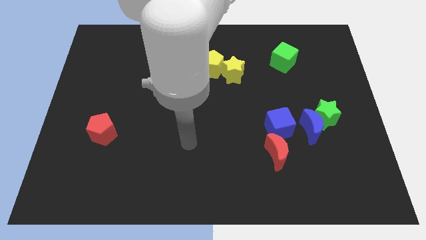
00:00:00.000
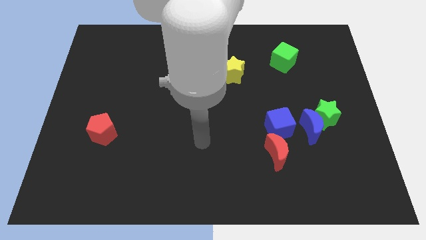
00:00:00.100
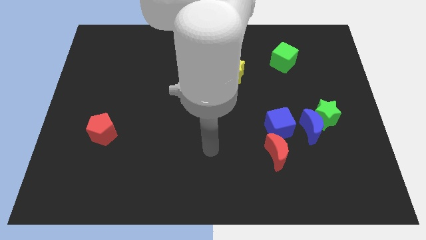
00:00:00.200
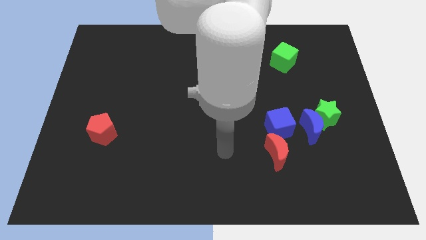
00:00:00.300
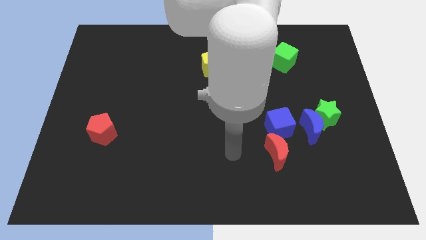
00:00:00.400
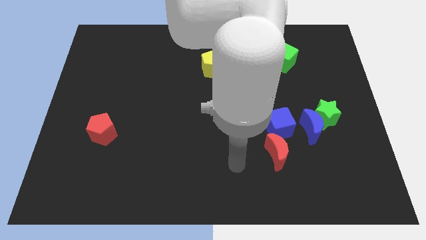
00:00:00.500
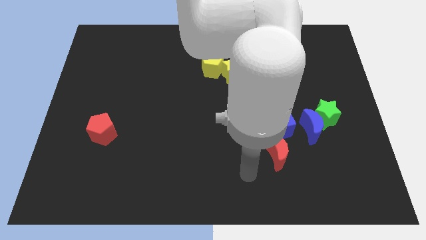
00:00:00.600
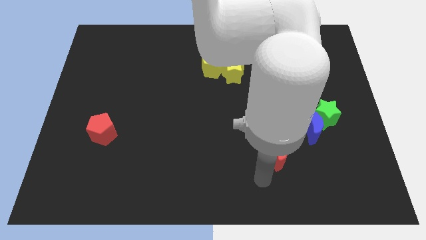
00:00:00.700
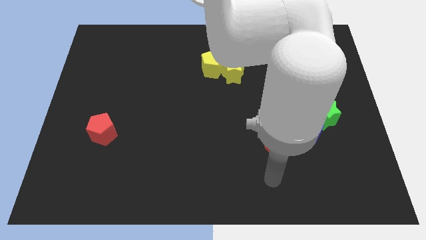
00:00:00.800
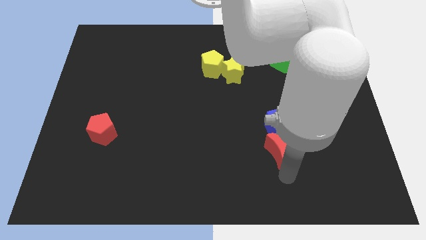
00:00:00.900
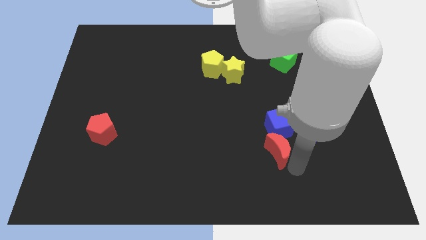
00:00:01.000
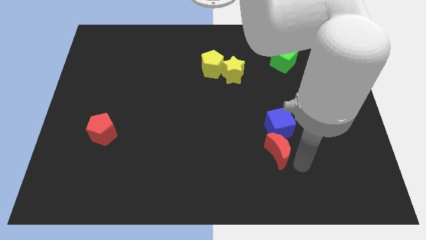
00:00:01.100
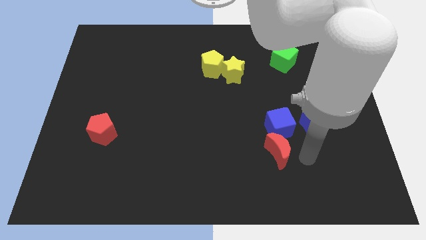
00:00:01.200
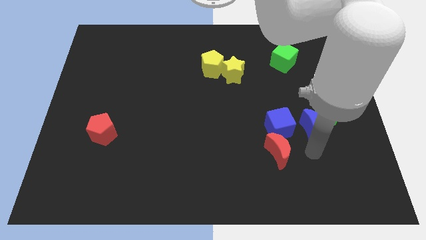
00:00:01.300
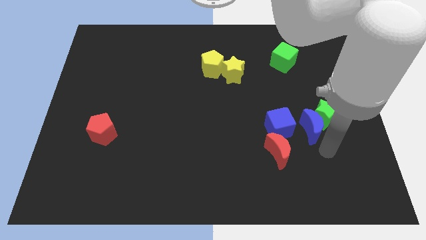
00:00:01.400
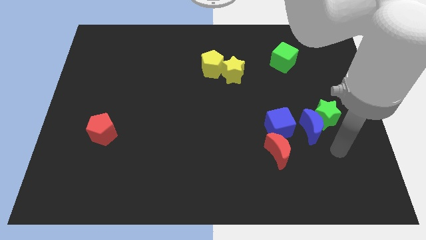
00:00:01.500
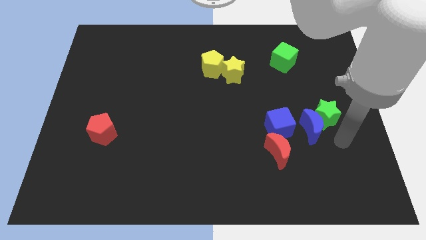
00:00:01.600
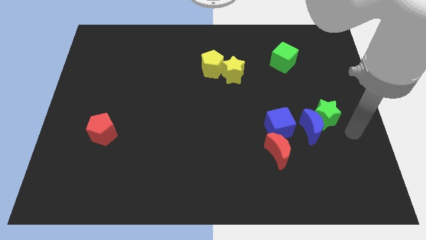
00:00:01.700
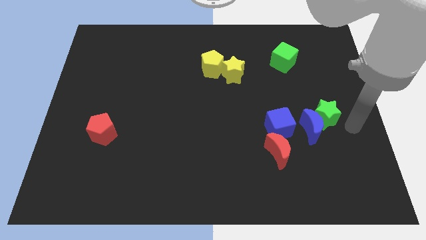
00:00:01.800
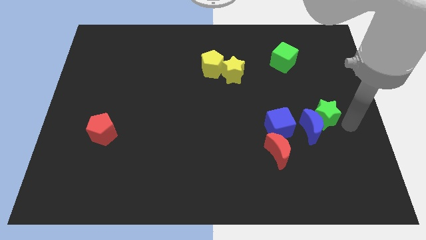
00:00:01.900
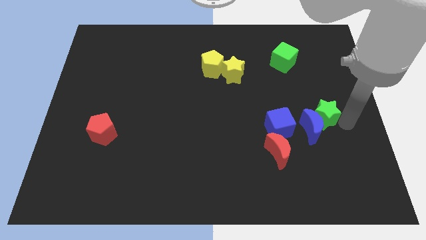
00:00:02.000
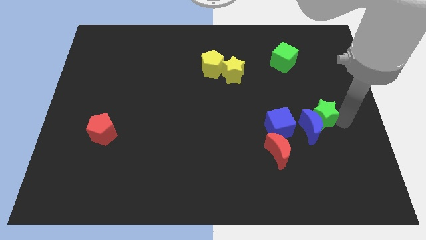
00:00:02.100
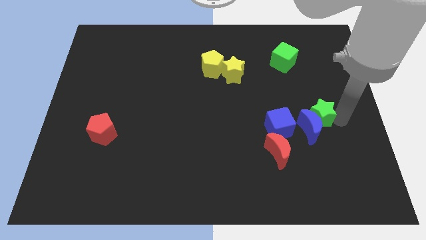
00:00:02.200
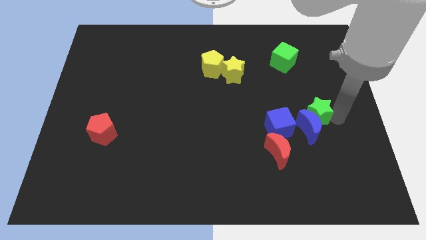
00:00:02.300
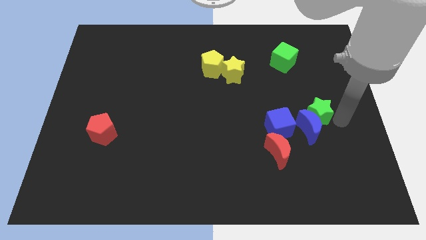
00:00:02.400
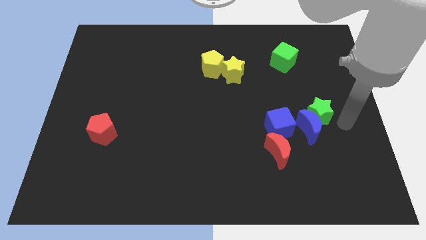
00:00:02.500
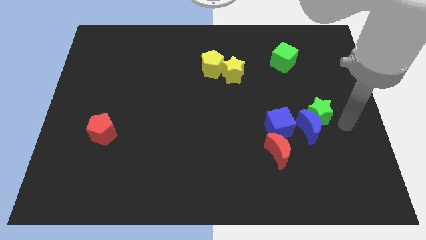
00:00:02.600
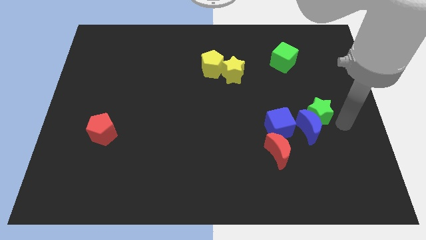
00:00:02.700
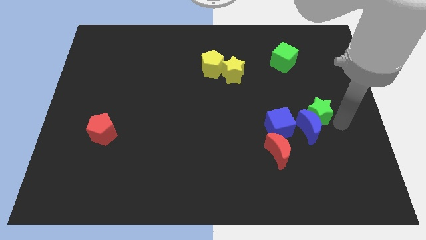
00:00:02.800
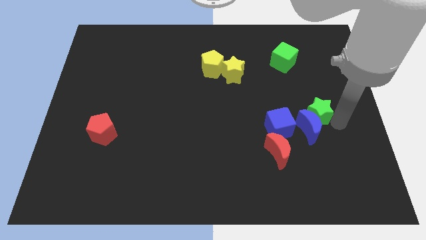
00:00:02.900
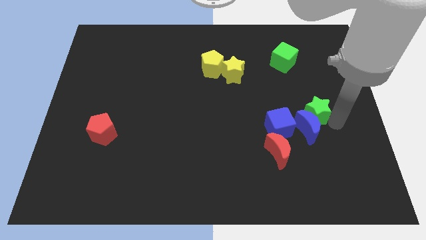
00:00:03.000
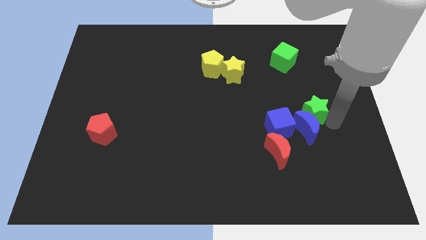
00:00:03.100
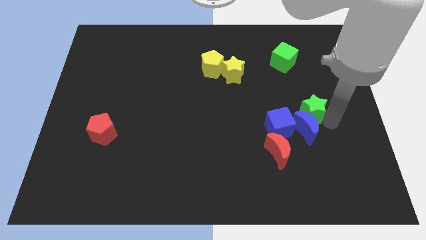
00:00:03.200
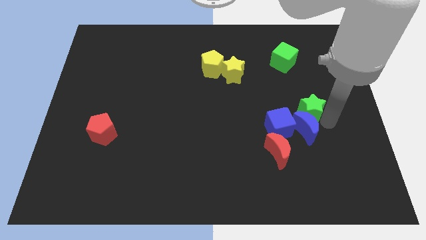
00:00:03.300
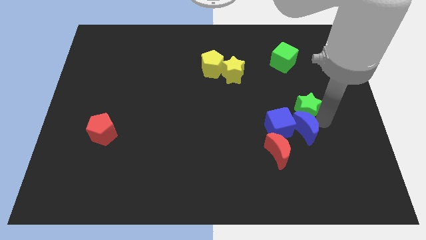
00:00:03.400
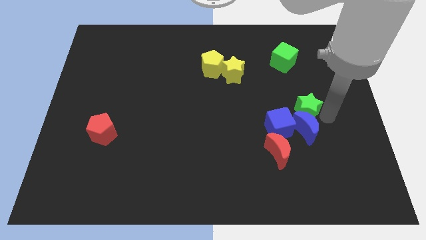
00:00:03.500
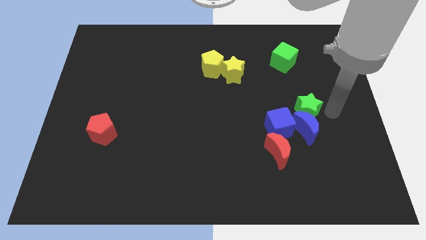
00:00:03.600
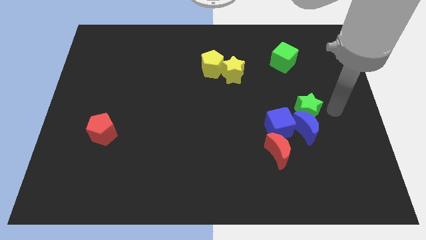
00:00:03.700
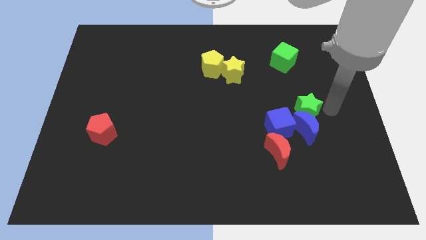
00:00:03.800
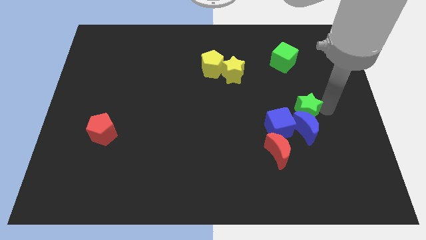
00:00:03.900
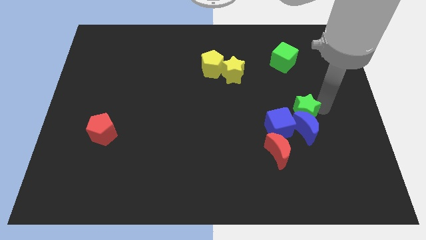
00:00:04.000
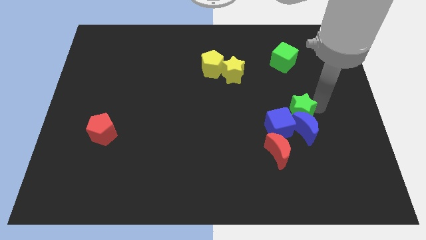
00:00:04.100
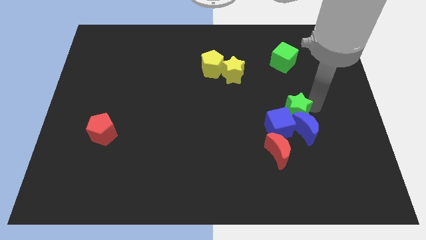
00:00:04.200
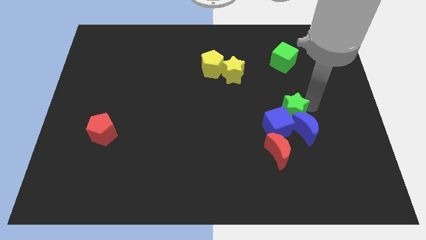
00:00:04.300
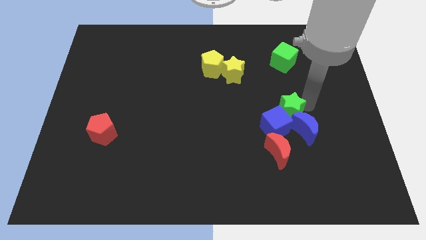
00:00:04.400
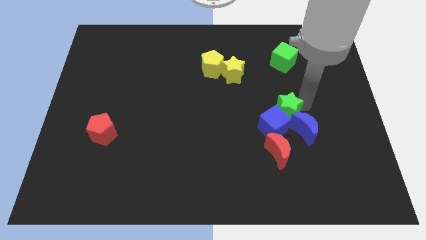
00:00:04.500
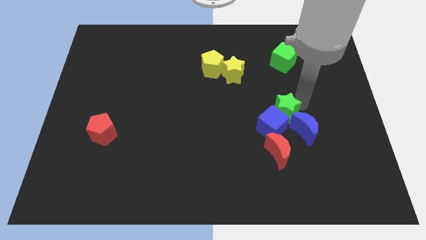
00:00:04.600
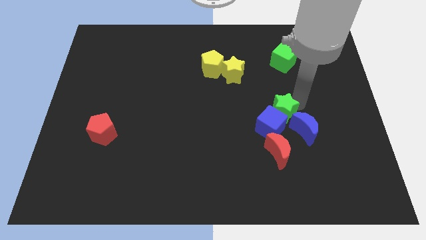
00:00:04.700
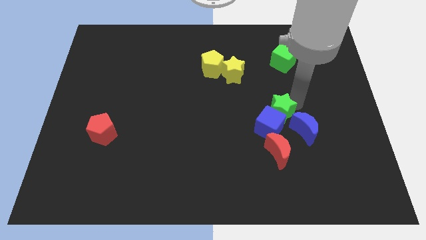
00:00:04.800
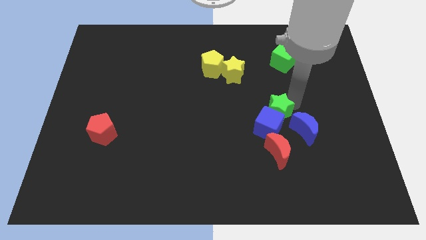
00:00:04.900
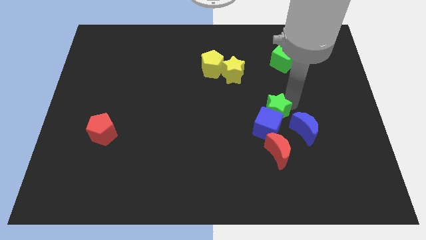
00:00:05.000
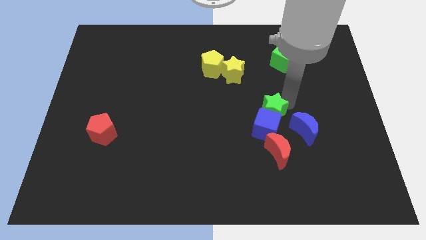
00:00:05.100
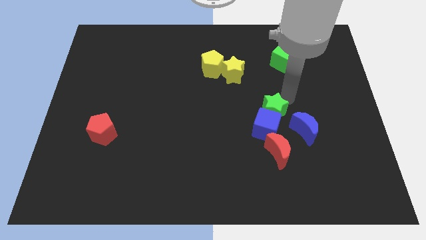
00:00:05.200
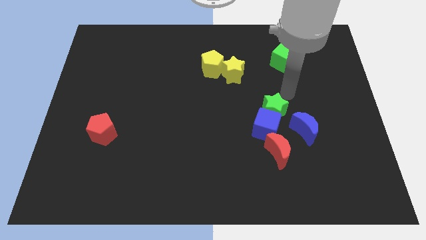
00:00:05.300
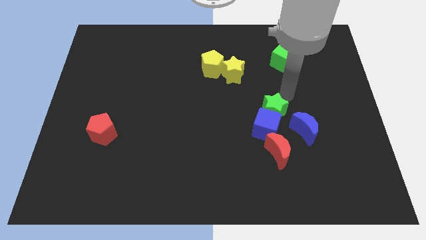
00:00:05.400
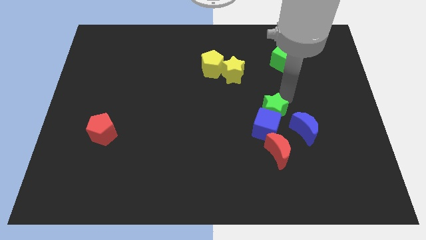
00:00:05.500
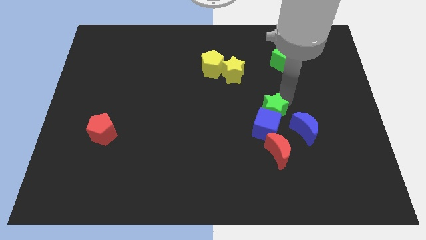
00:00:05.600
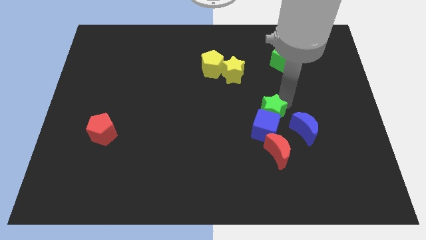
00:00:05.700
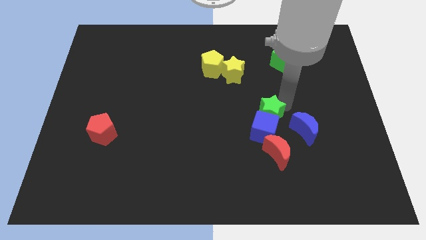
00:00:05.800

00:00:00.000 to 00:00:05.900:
put the green star to the left of the blue moon

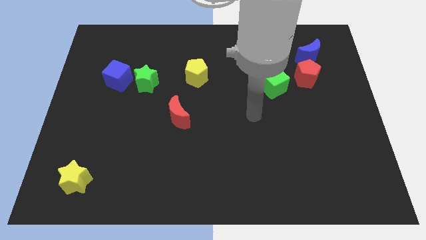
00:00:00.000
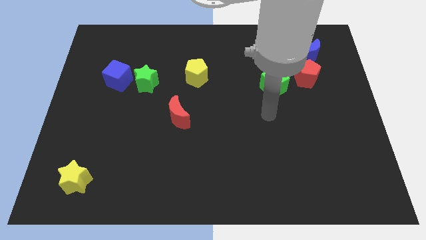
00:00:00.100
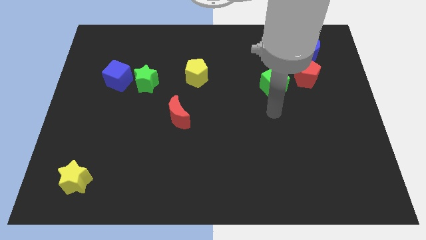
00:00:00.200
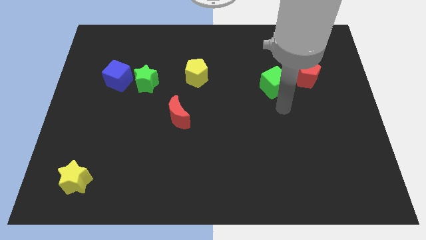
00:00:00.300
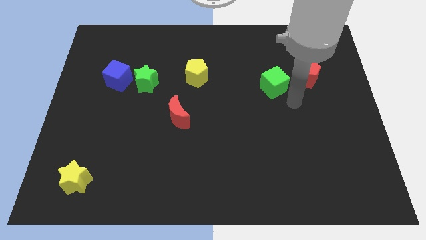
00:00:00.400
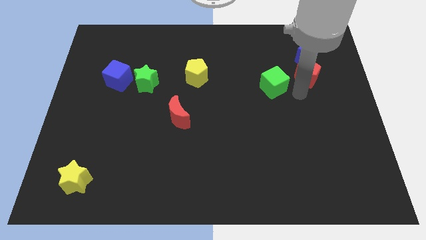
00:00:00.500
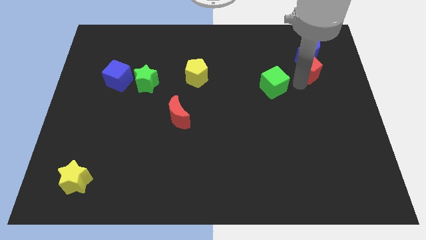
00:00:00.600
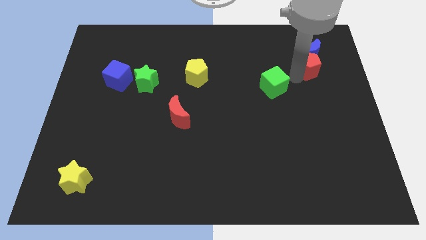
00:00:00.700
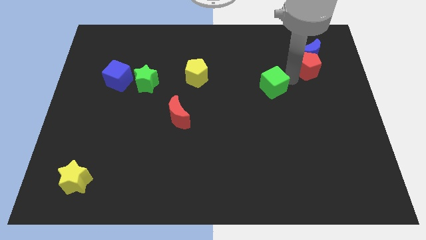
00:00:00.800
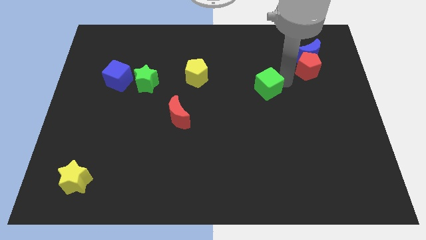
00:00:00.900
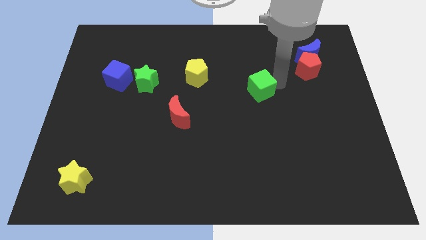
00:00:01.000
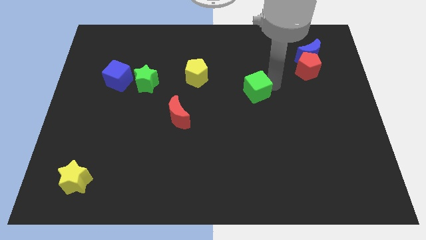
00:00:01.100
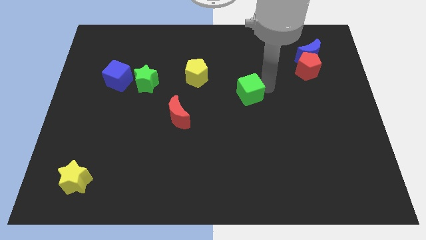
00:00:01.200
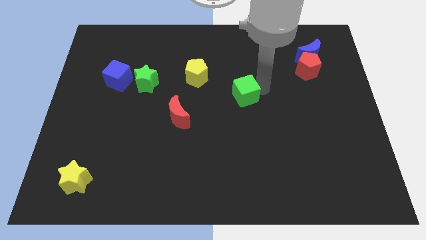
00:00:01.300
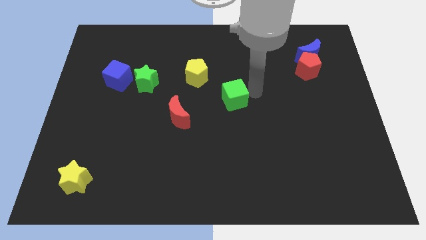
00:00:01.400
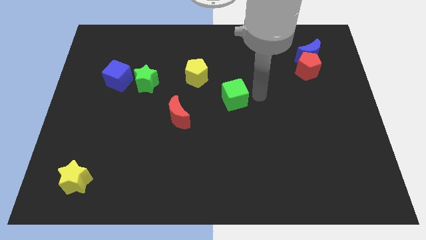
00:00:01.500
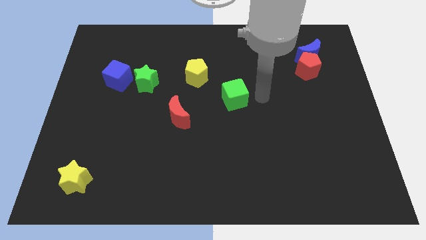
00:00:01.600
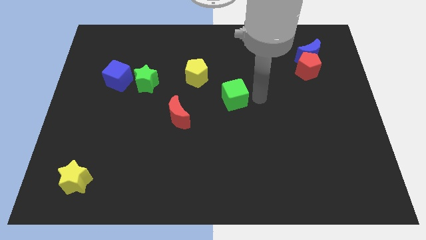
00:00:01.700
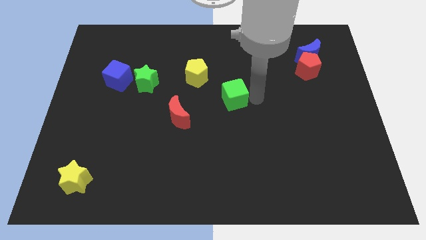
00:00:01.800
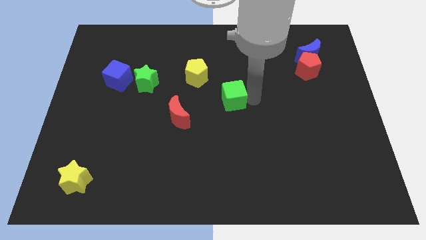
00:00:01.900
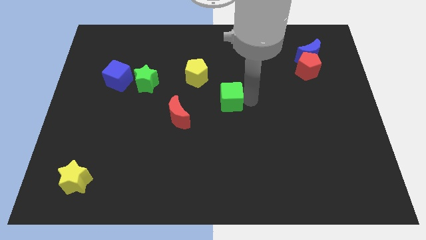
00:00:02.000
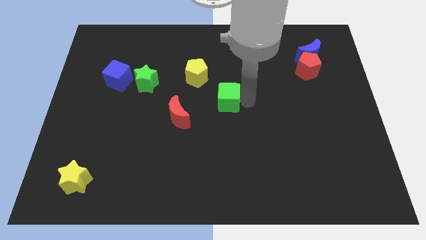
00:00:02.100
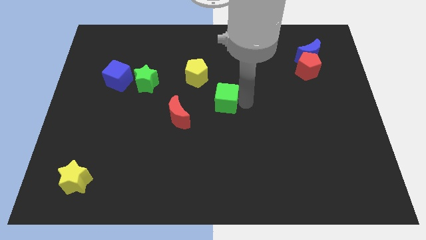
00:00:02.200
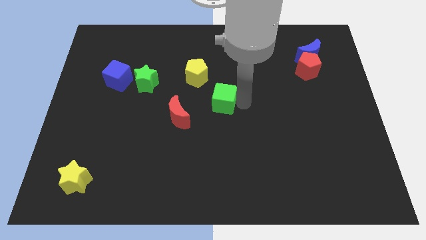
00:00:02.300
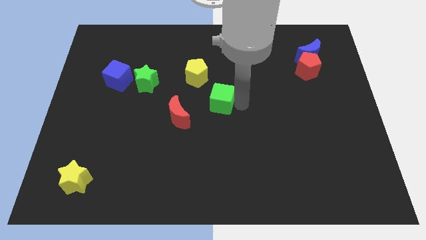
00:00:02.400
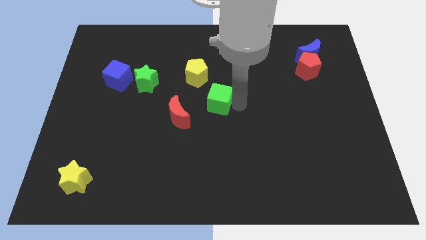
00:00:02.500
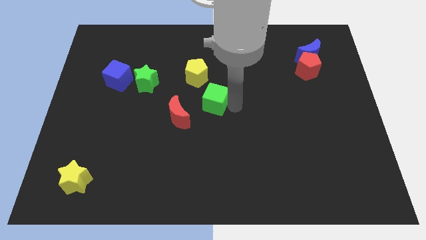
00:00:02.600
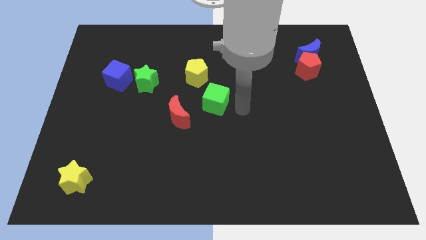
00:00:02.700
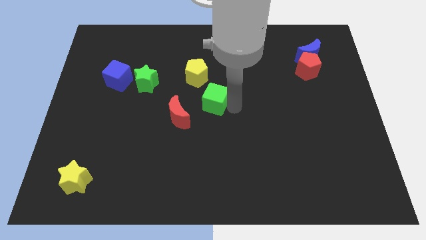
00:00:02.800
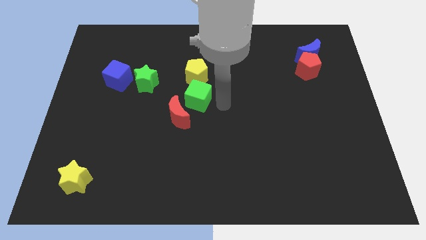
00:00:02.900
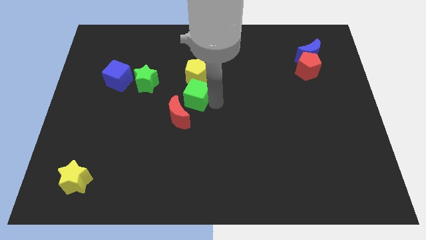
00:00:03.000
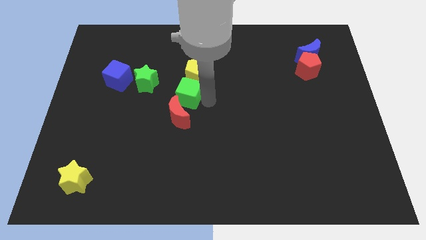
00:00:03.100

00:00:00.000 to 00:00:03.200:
put the green cube to the bottom left of the yellow pentagon
